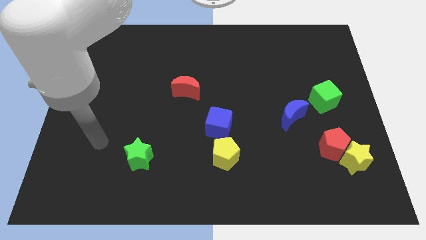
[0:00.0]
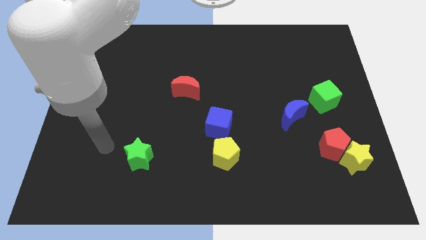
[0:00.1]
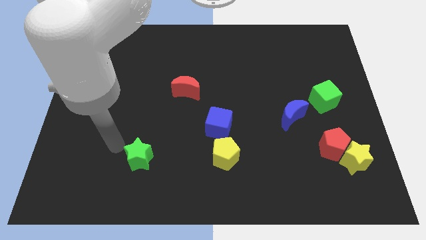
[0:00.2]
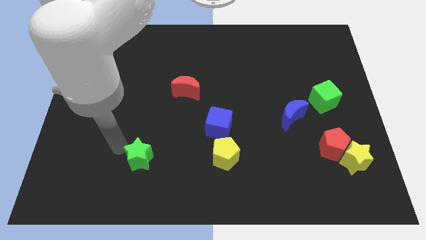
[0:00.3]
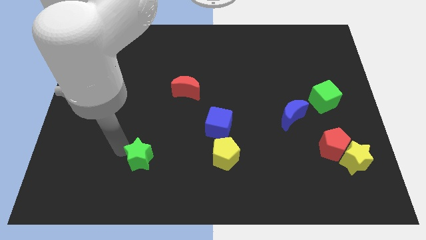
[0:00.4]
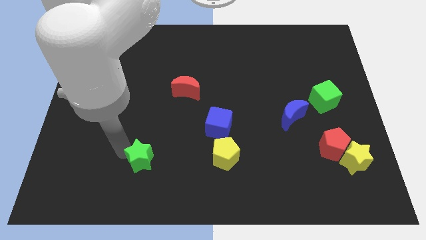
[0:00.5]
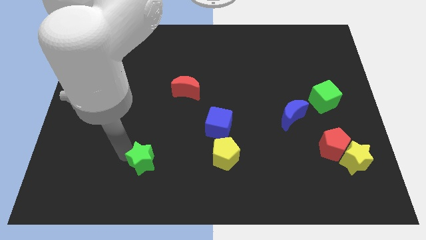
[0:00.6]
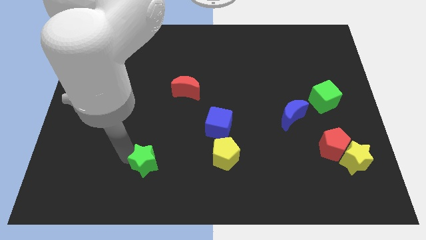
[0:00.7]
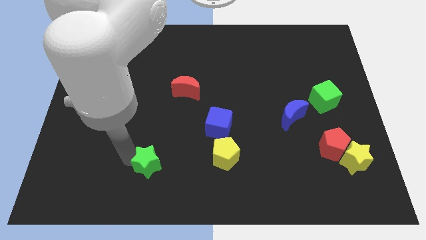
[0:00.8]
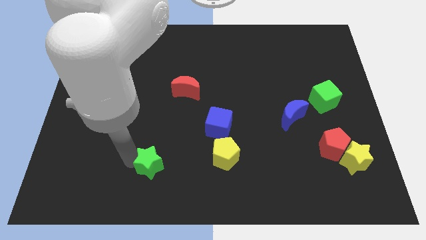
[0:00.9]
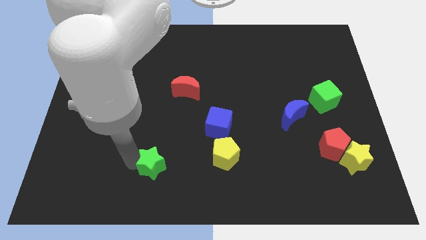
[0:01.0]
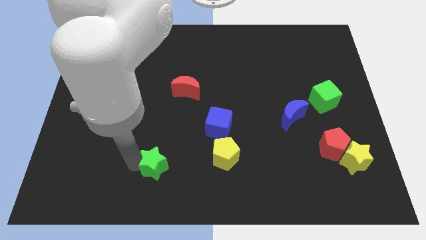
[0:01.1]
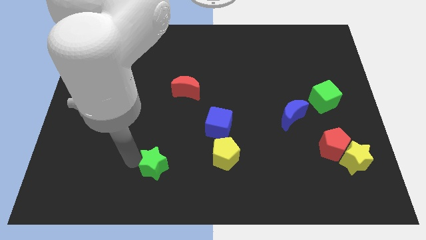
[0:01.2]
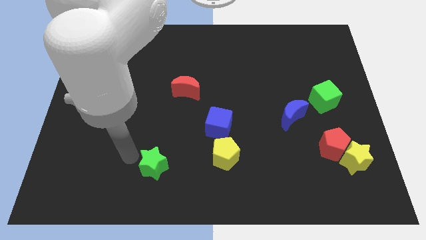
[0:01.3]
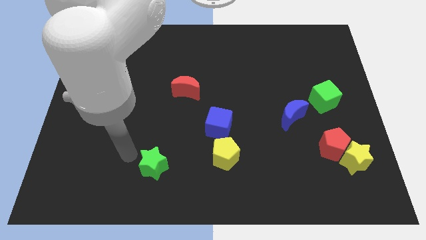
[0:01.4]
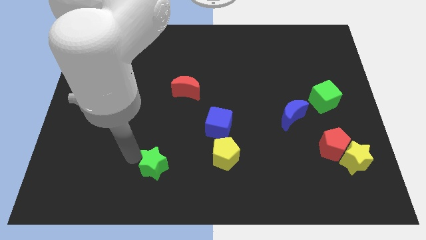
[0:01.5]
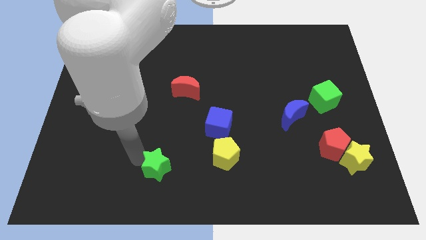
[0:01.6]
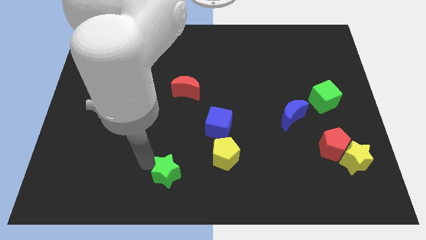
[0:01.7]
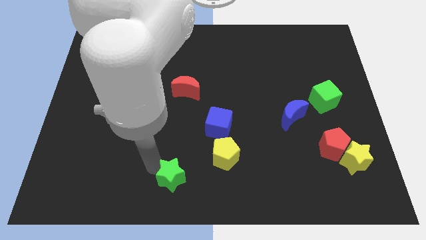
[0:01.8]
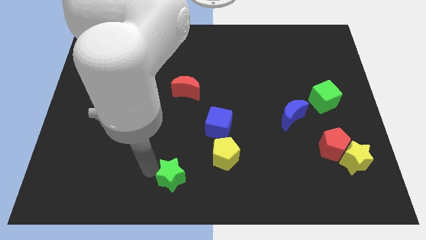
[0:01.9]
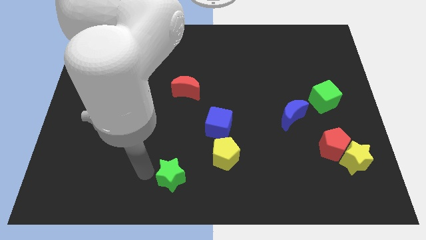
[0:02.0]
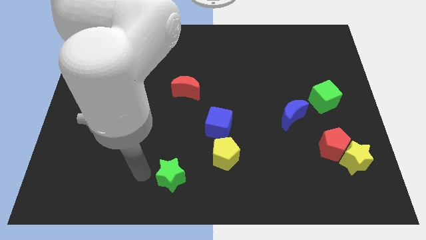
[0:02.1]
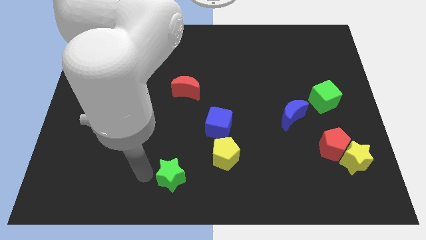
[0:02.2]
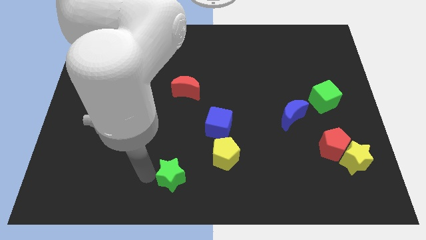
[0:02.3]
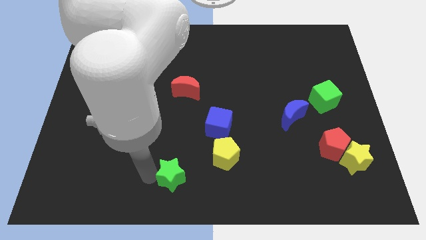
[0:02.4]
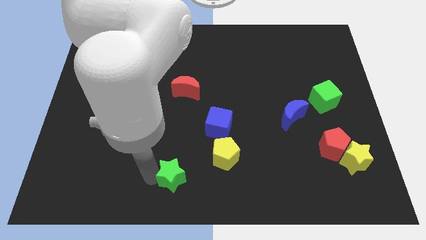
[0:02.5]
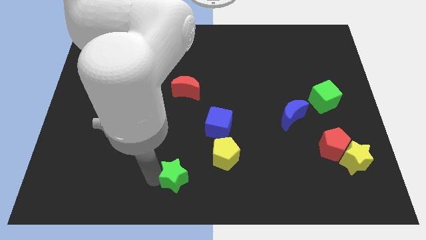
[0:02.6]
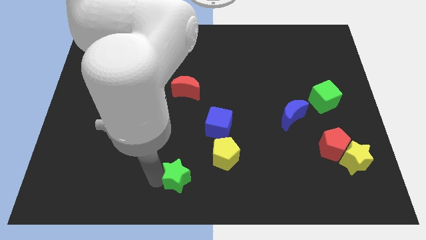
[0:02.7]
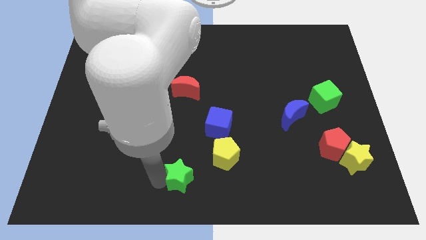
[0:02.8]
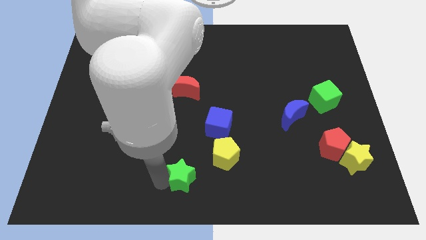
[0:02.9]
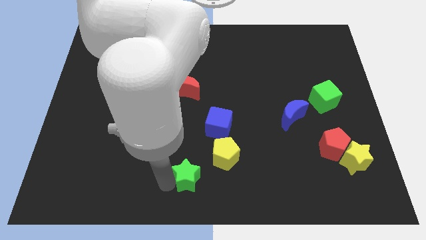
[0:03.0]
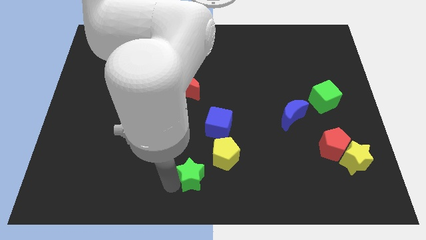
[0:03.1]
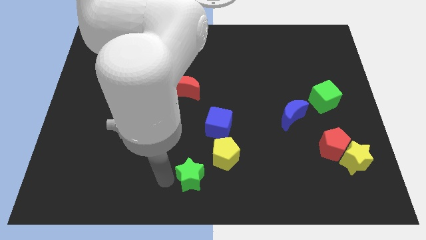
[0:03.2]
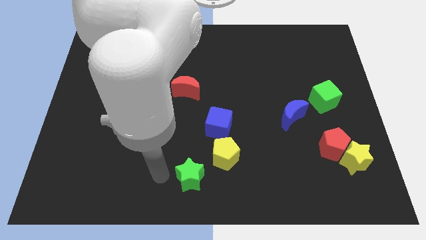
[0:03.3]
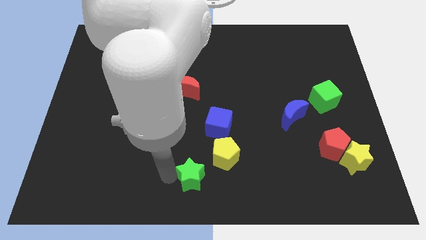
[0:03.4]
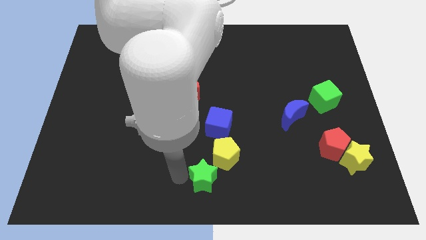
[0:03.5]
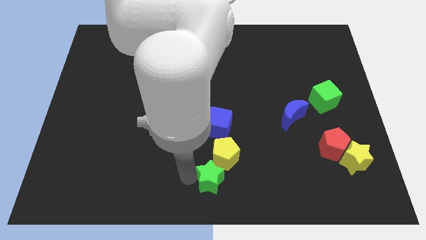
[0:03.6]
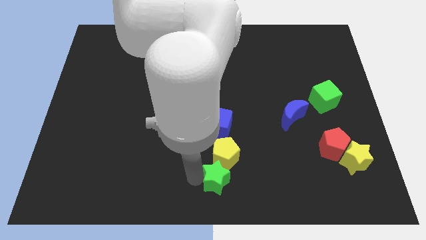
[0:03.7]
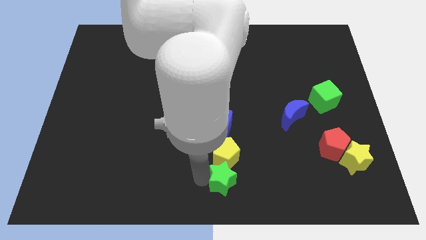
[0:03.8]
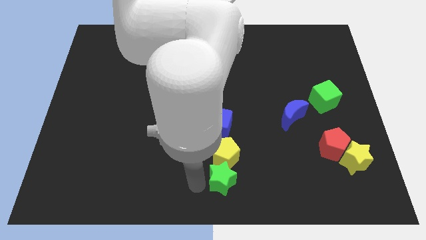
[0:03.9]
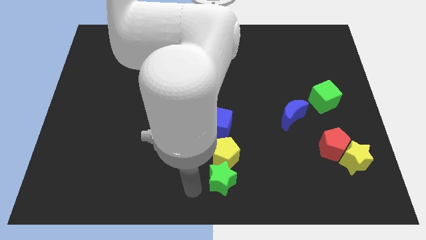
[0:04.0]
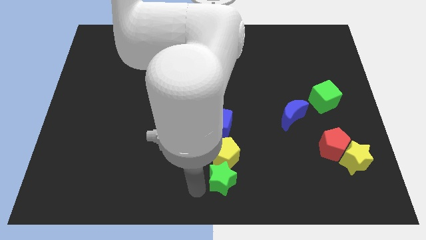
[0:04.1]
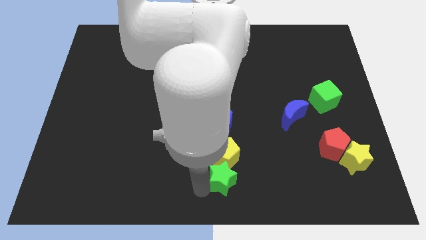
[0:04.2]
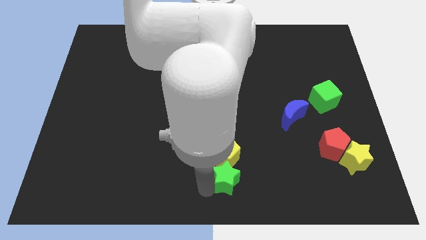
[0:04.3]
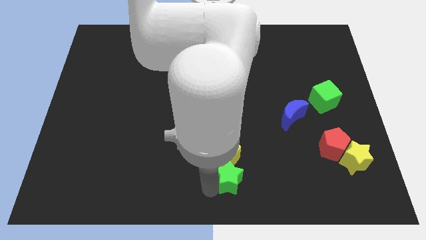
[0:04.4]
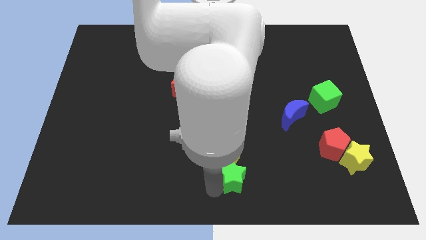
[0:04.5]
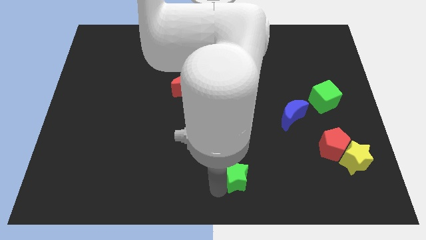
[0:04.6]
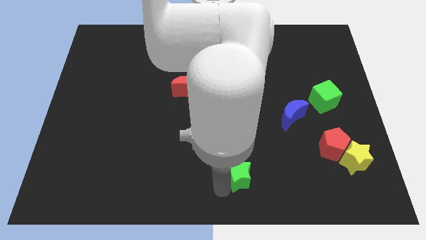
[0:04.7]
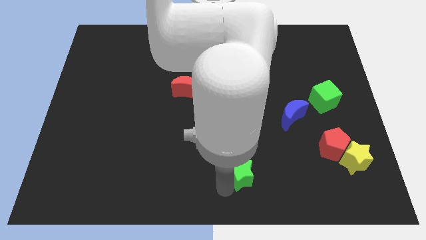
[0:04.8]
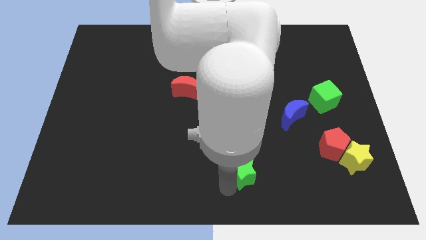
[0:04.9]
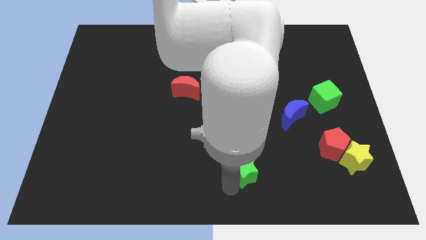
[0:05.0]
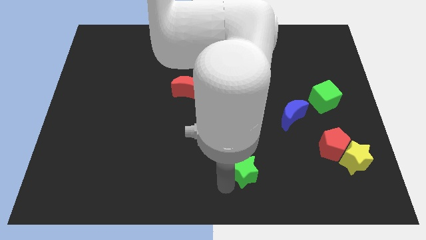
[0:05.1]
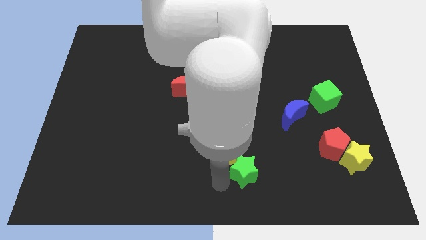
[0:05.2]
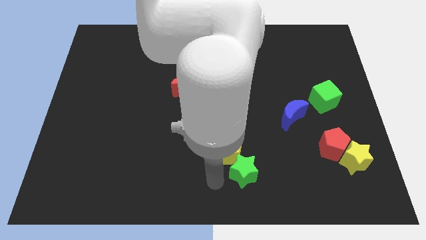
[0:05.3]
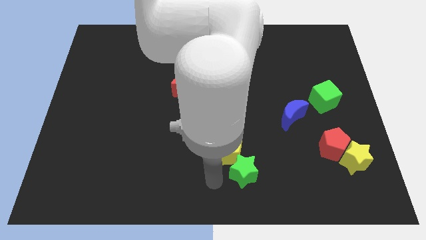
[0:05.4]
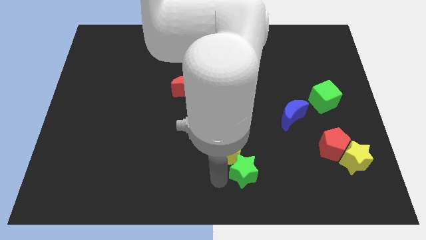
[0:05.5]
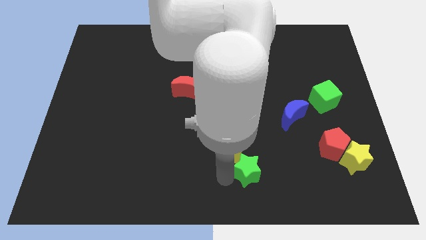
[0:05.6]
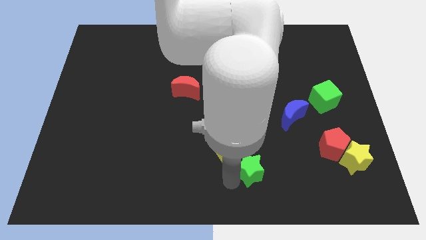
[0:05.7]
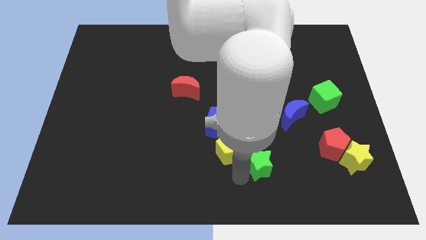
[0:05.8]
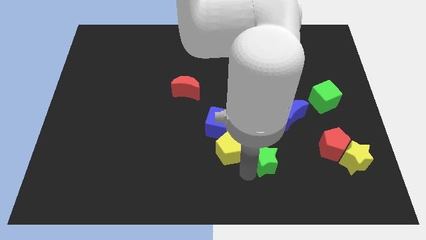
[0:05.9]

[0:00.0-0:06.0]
slide the green star to the left of the red pentagon

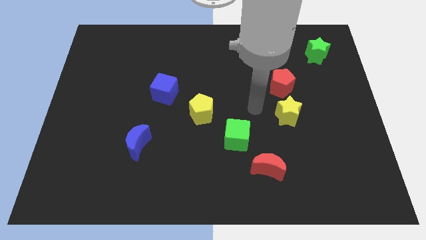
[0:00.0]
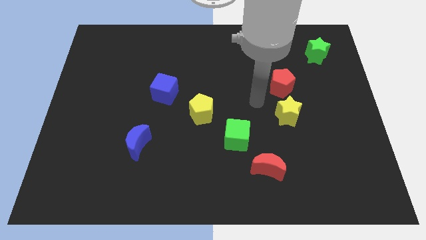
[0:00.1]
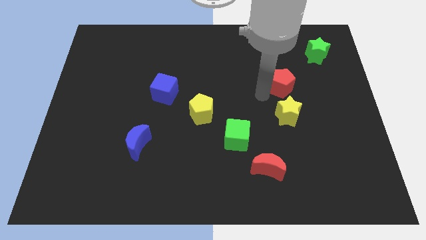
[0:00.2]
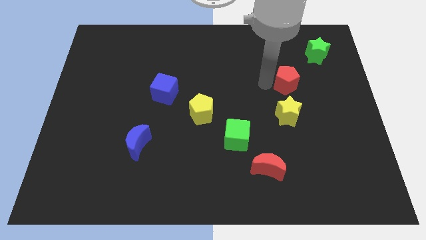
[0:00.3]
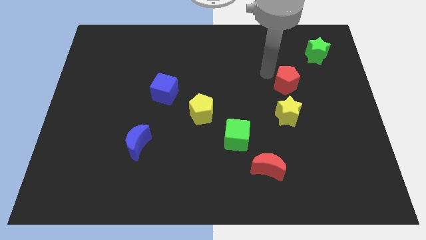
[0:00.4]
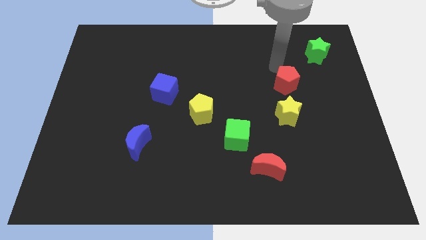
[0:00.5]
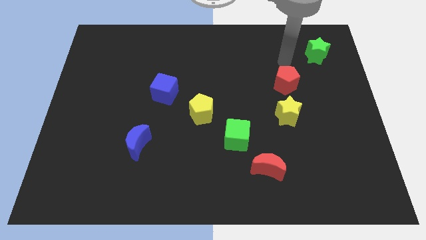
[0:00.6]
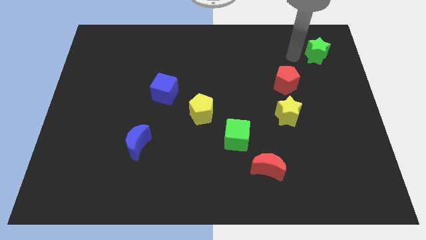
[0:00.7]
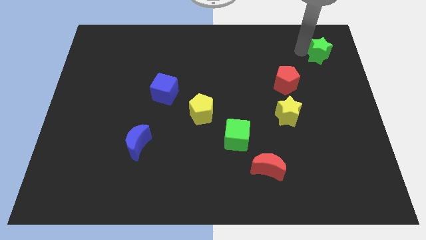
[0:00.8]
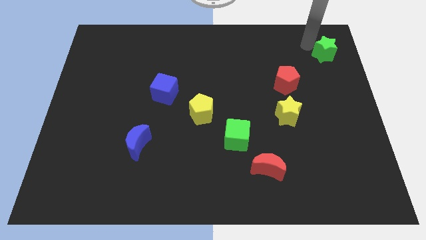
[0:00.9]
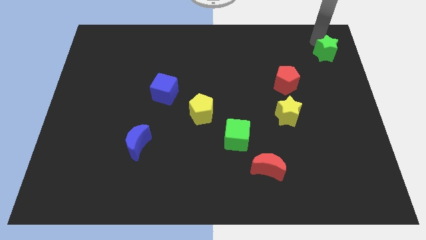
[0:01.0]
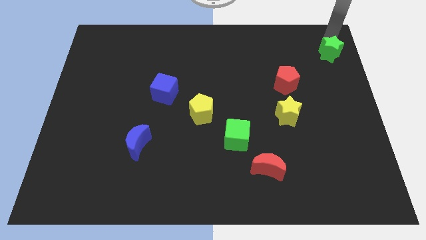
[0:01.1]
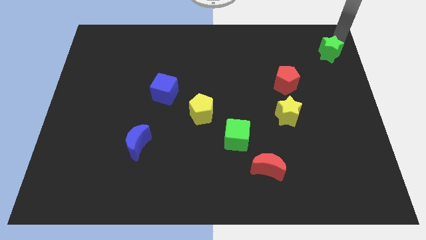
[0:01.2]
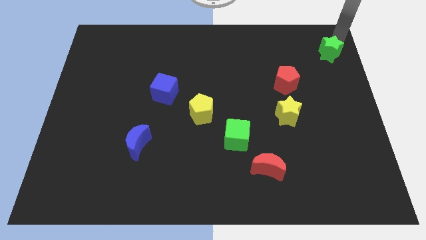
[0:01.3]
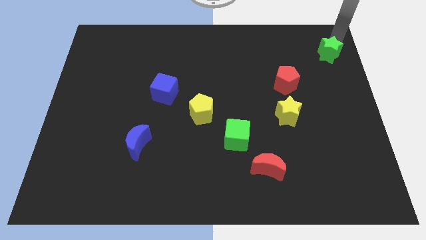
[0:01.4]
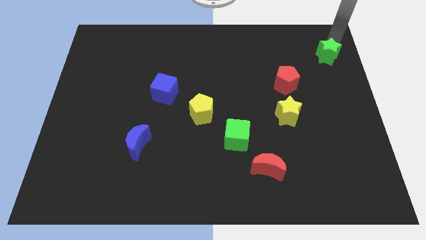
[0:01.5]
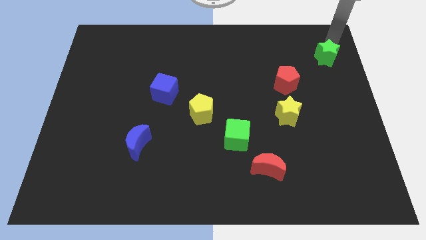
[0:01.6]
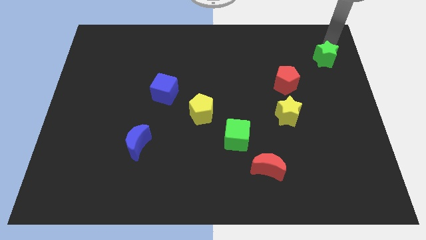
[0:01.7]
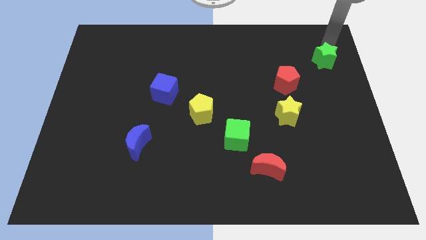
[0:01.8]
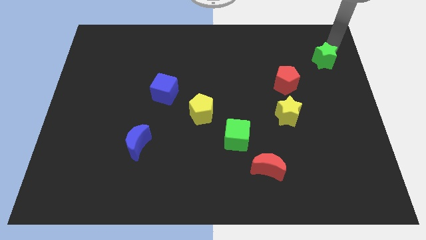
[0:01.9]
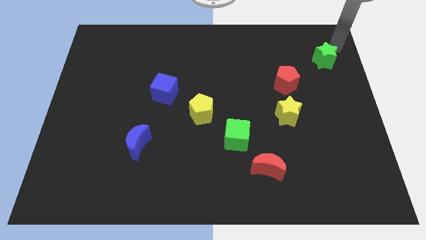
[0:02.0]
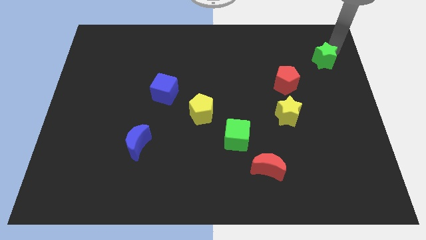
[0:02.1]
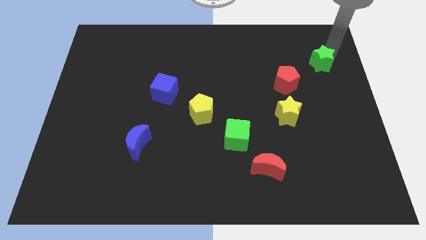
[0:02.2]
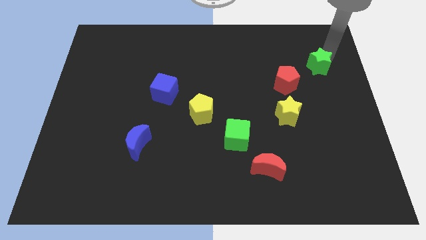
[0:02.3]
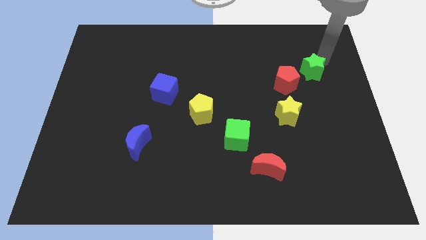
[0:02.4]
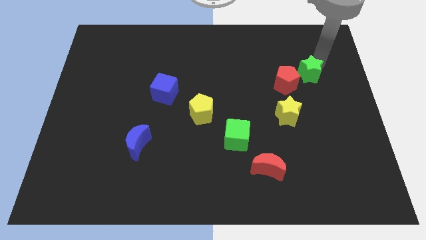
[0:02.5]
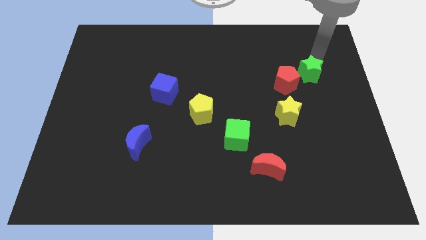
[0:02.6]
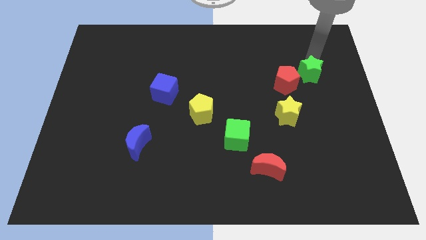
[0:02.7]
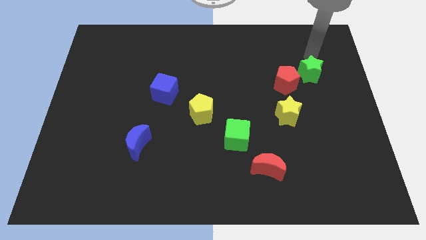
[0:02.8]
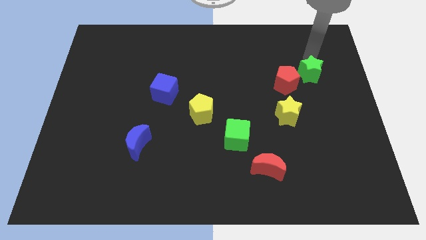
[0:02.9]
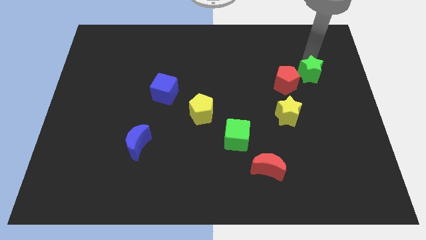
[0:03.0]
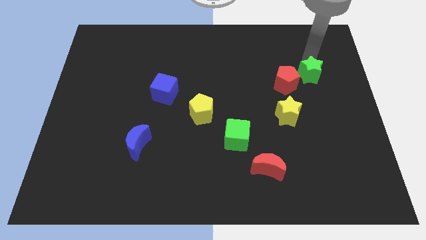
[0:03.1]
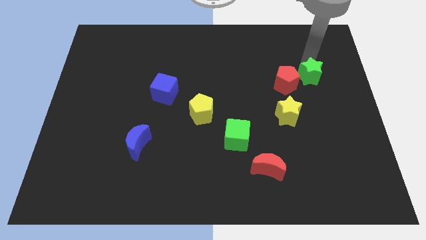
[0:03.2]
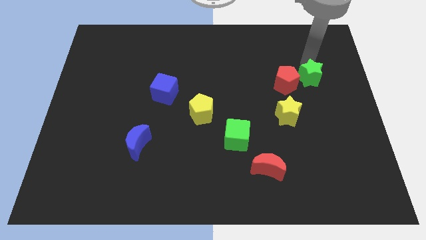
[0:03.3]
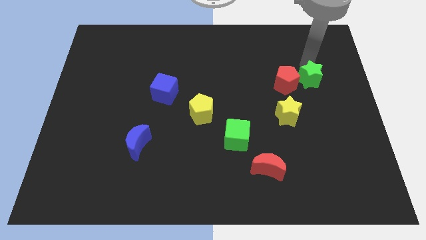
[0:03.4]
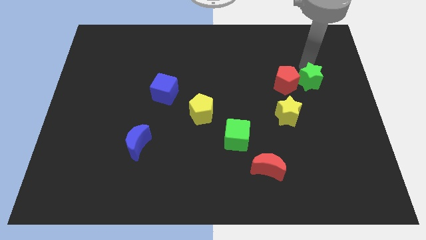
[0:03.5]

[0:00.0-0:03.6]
move the green star to the bottom right side of the red pentagon
